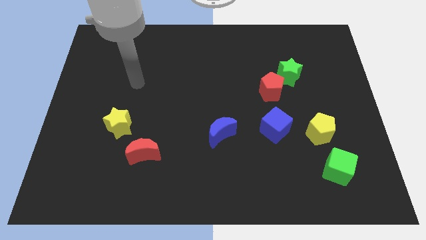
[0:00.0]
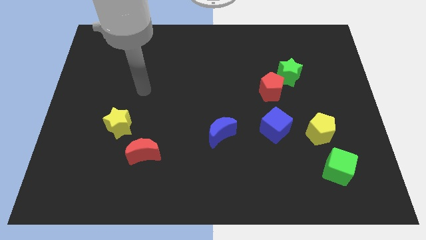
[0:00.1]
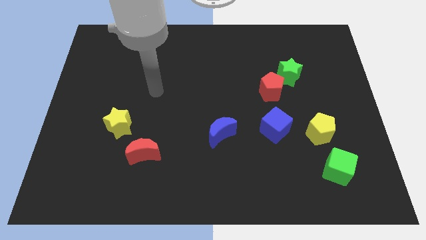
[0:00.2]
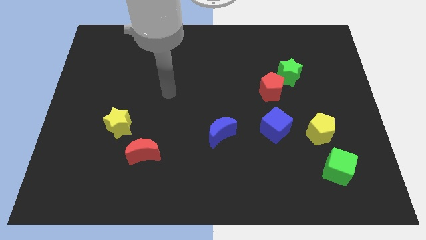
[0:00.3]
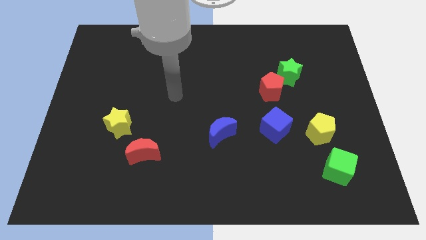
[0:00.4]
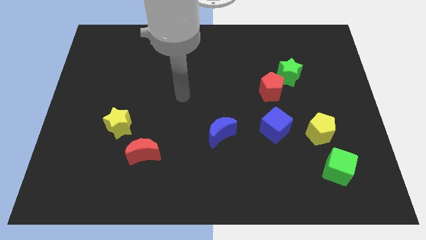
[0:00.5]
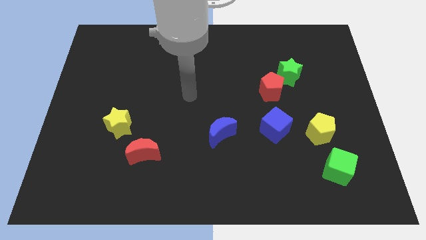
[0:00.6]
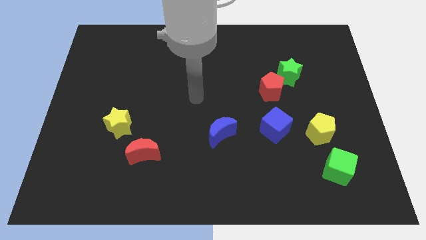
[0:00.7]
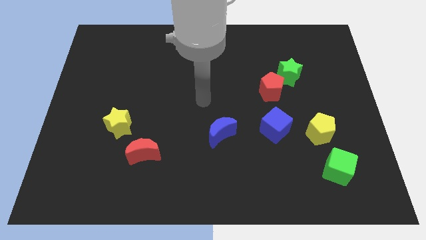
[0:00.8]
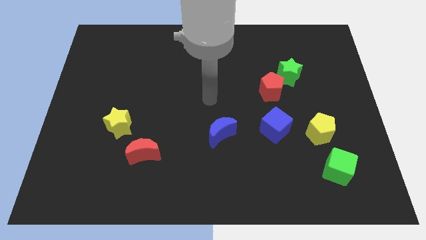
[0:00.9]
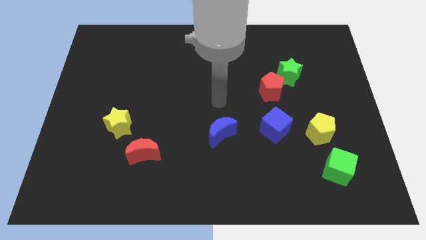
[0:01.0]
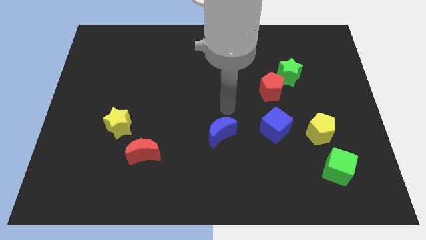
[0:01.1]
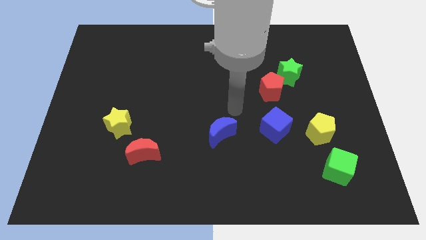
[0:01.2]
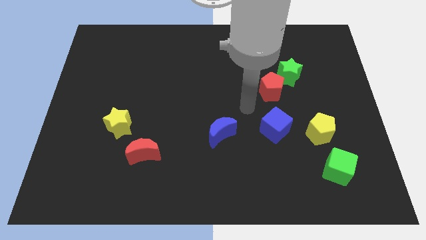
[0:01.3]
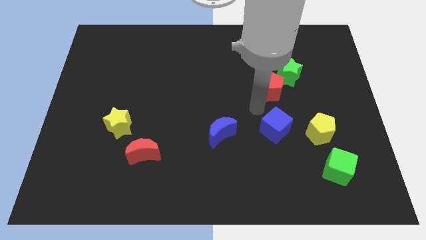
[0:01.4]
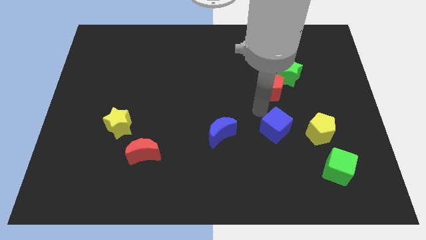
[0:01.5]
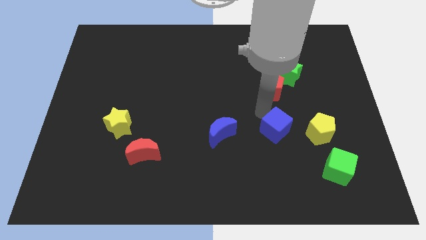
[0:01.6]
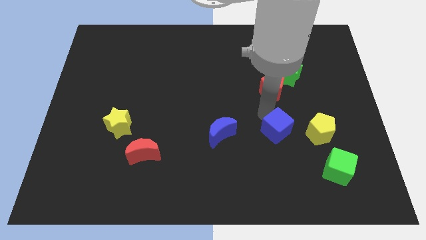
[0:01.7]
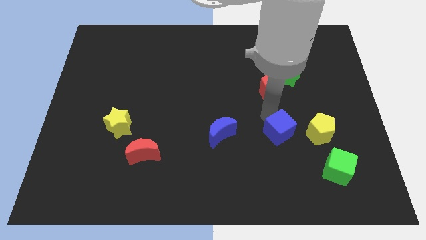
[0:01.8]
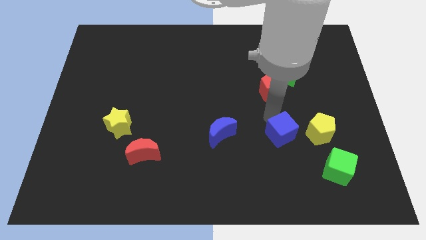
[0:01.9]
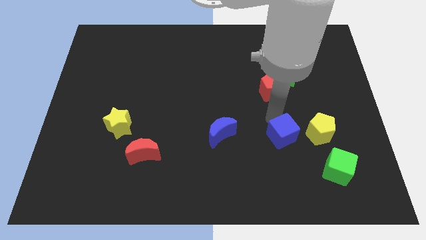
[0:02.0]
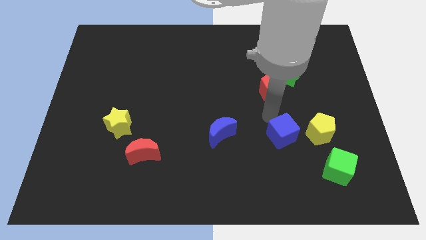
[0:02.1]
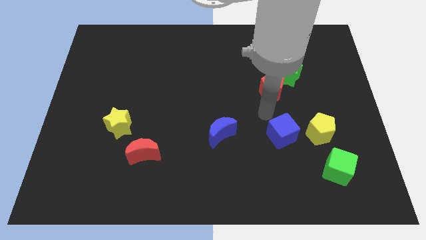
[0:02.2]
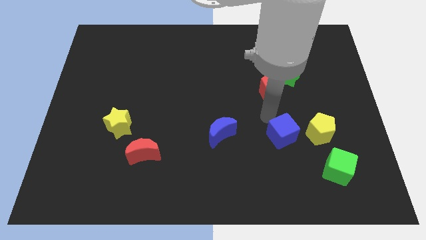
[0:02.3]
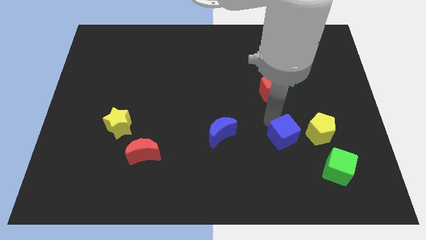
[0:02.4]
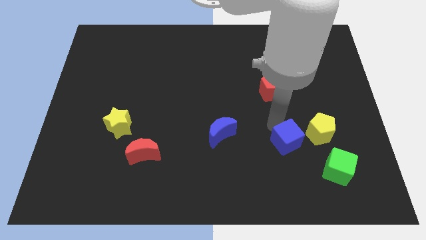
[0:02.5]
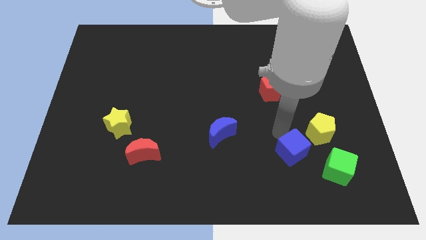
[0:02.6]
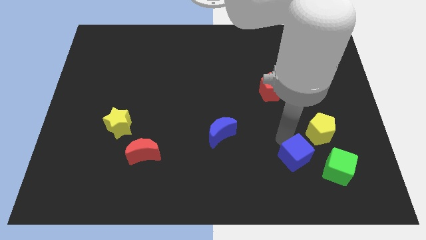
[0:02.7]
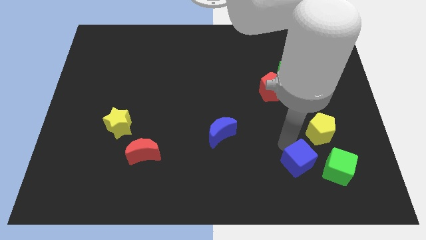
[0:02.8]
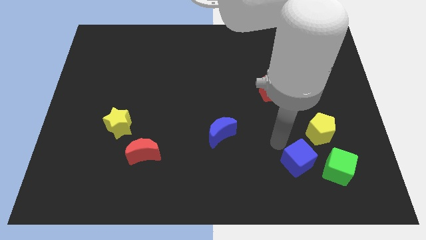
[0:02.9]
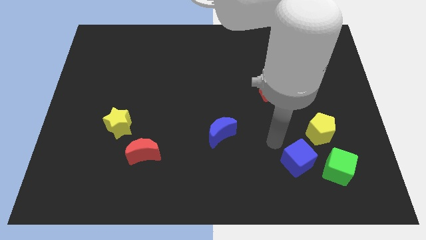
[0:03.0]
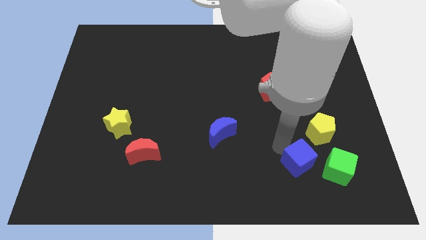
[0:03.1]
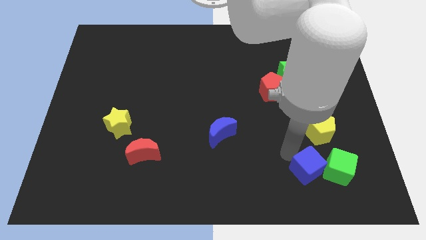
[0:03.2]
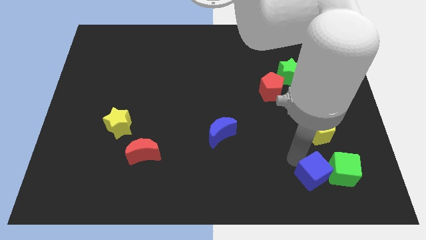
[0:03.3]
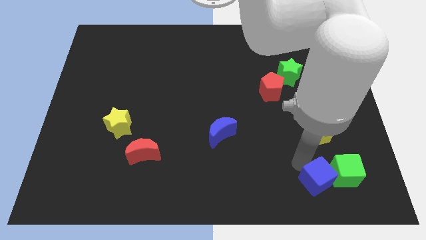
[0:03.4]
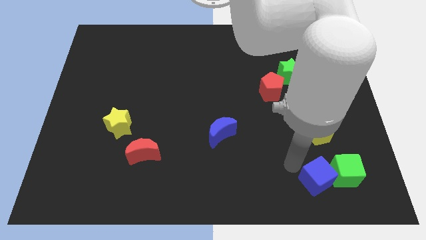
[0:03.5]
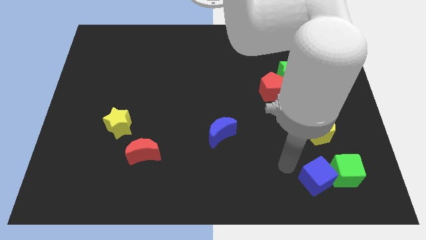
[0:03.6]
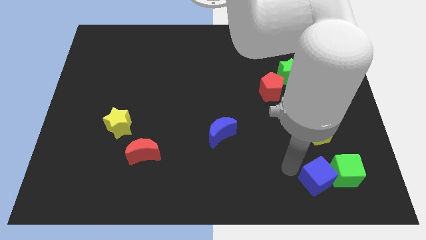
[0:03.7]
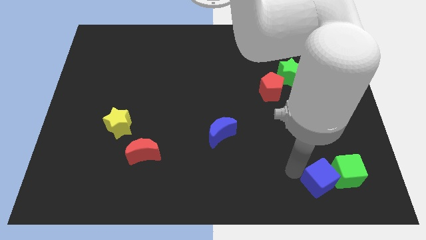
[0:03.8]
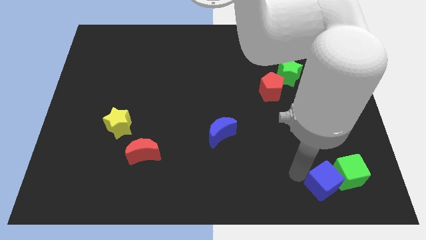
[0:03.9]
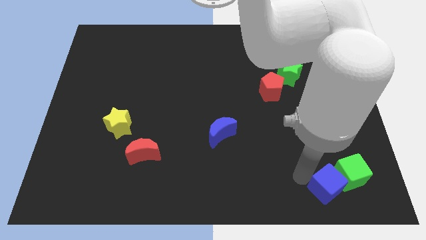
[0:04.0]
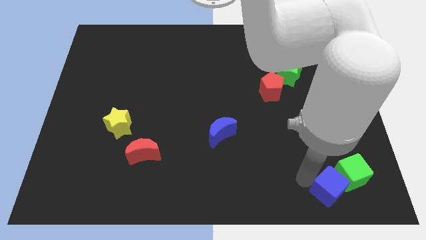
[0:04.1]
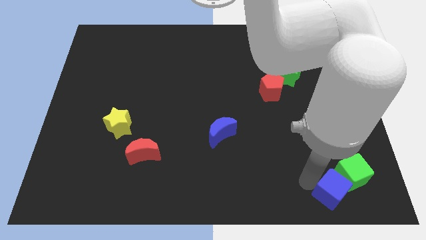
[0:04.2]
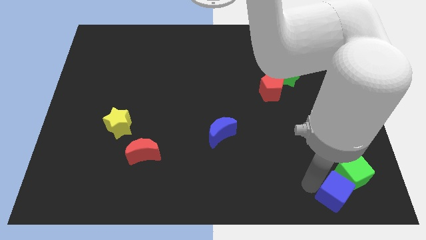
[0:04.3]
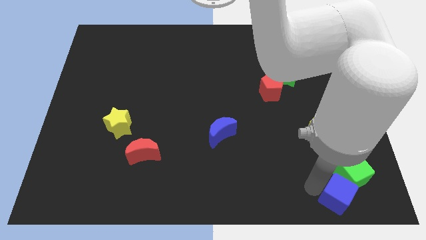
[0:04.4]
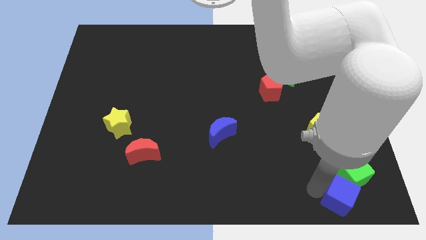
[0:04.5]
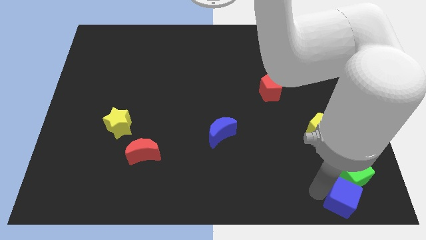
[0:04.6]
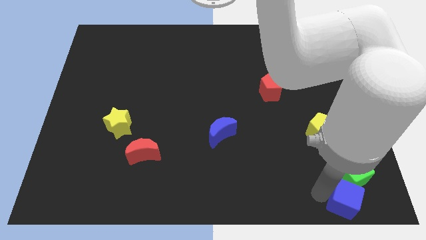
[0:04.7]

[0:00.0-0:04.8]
push the blue cube to the lower right corner

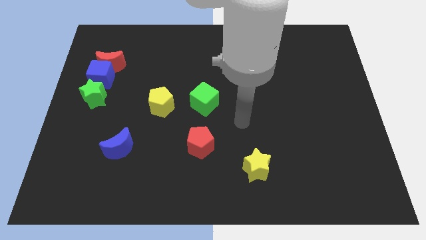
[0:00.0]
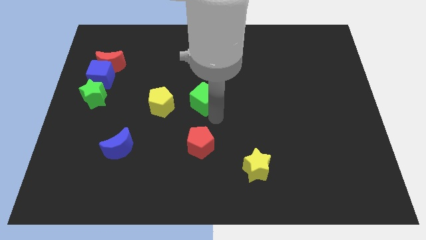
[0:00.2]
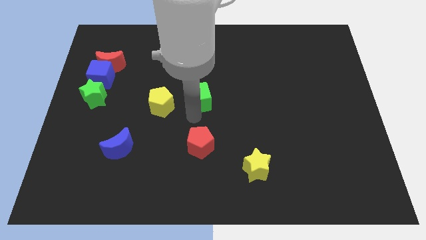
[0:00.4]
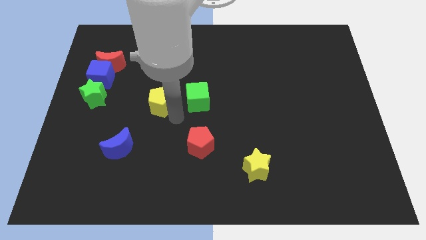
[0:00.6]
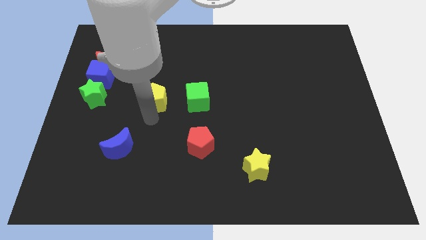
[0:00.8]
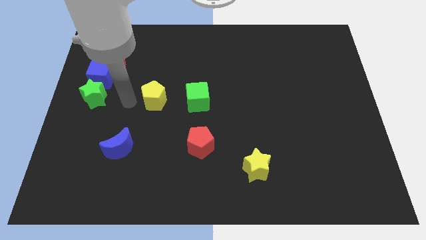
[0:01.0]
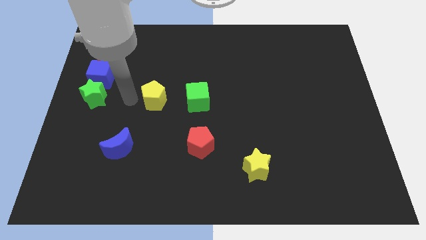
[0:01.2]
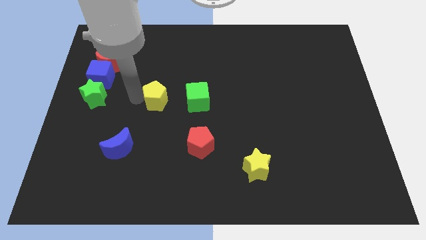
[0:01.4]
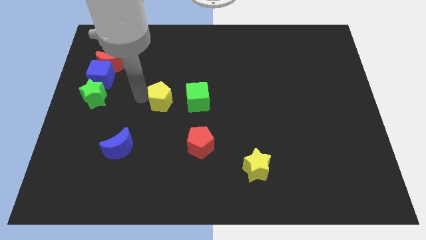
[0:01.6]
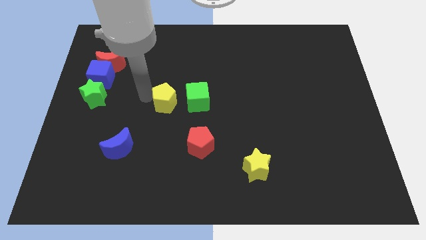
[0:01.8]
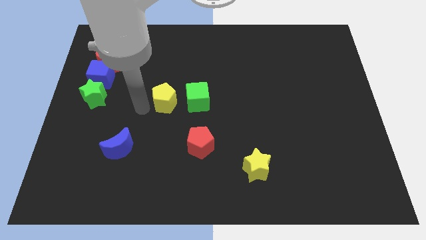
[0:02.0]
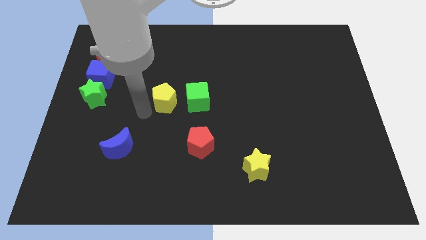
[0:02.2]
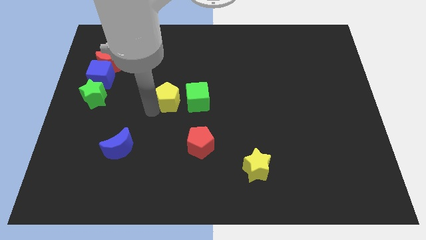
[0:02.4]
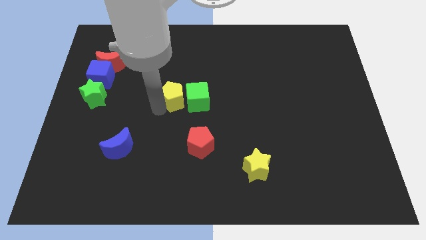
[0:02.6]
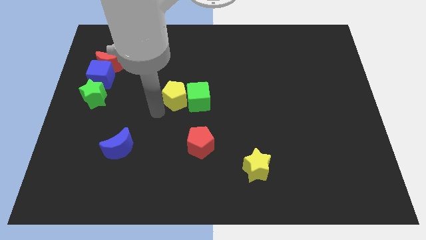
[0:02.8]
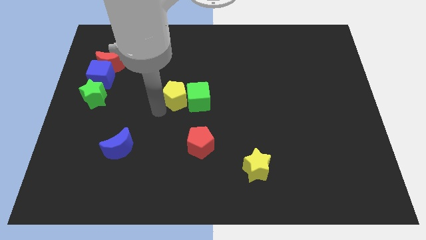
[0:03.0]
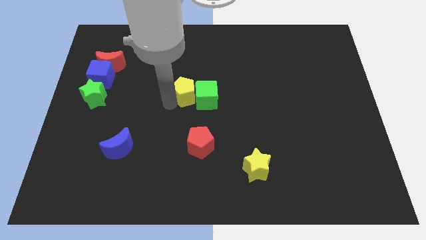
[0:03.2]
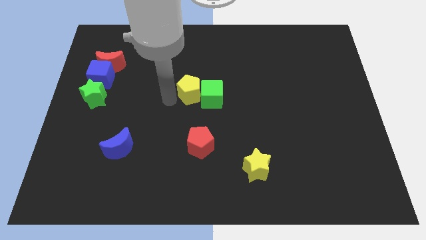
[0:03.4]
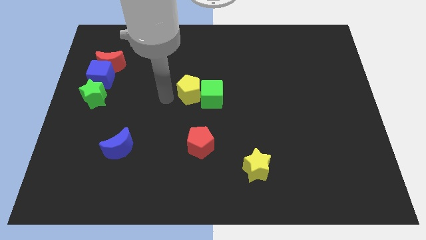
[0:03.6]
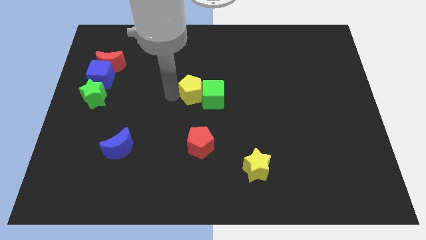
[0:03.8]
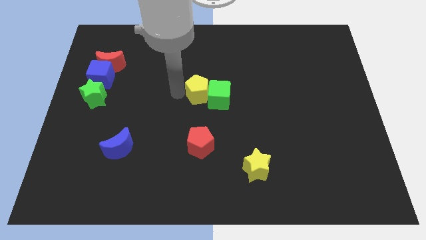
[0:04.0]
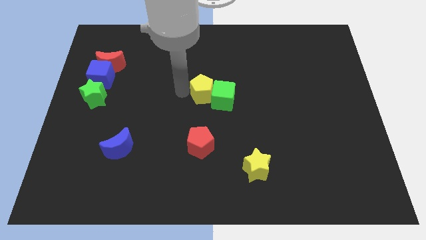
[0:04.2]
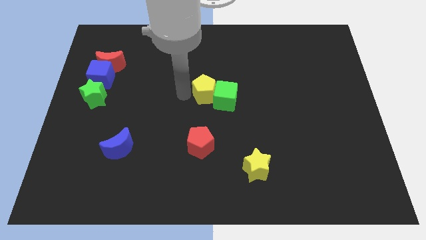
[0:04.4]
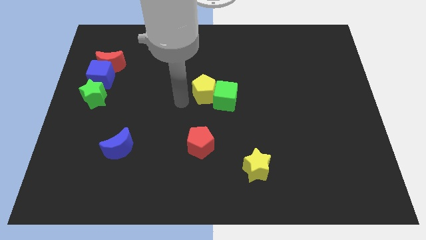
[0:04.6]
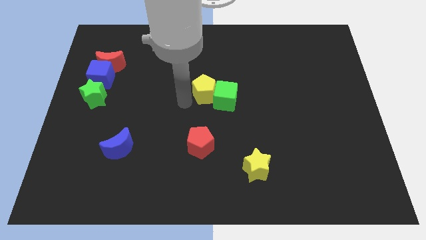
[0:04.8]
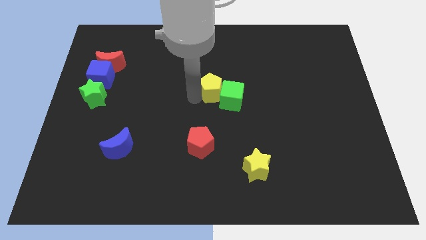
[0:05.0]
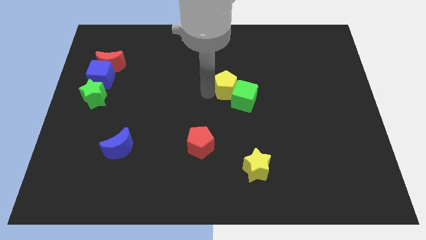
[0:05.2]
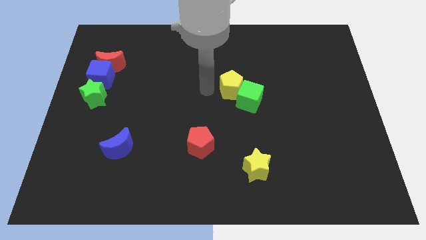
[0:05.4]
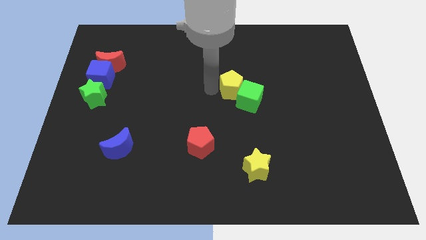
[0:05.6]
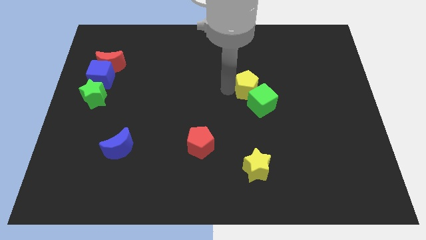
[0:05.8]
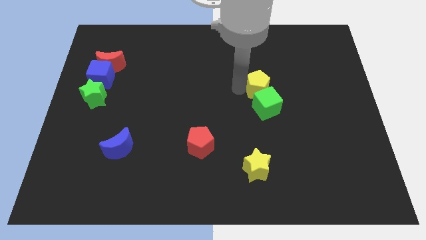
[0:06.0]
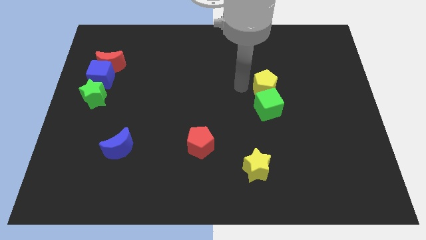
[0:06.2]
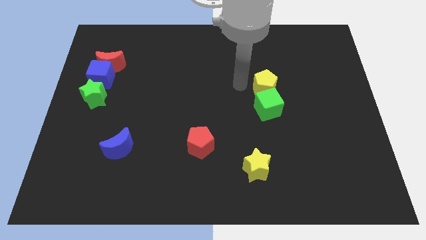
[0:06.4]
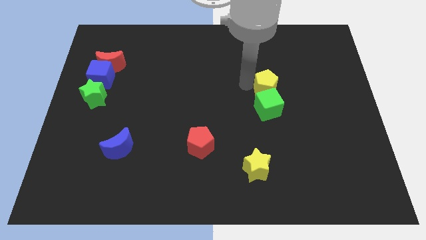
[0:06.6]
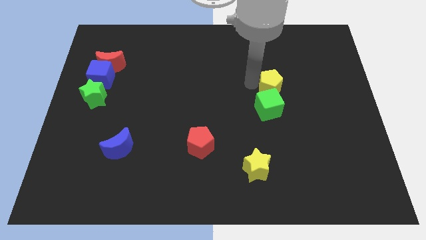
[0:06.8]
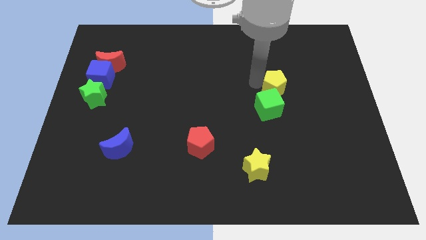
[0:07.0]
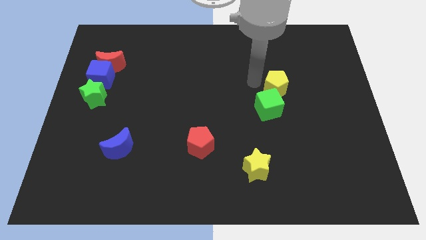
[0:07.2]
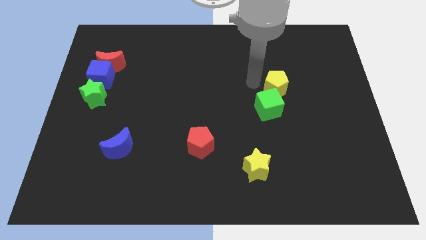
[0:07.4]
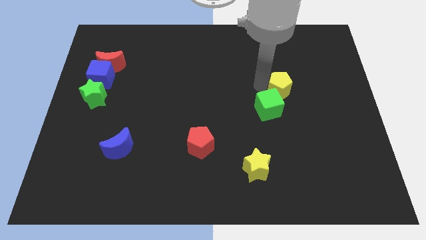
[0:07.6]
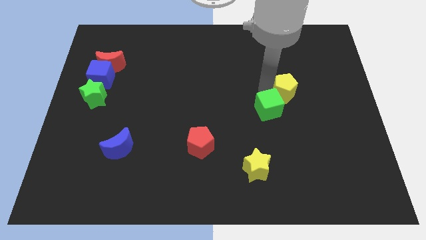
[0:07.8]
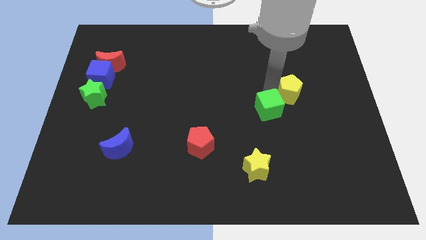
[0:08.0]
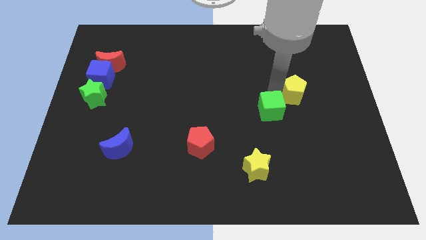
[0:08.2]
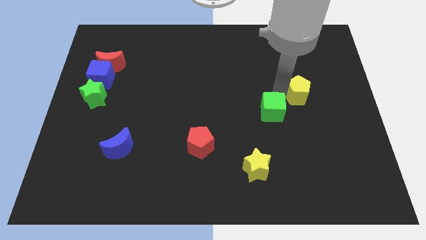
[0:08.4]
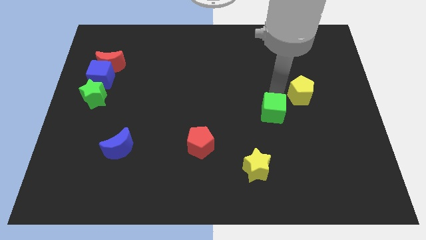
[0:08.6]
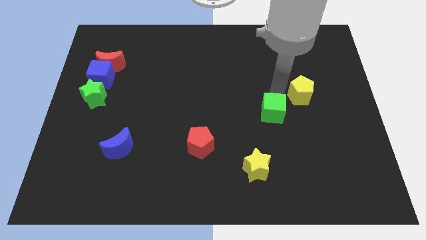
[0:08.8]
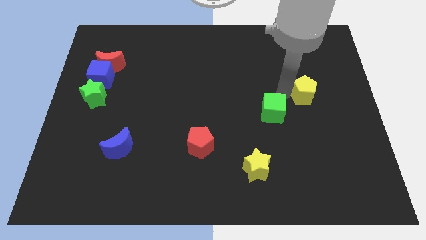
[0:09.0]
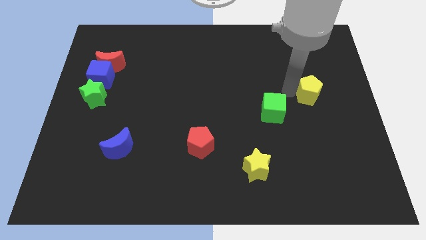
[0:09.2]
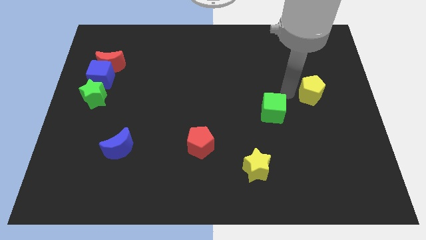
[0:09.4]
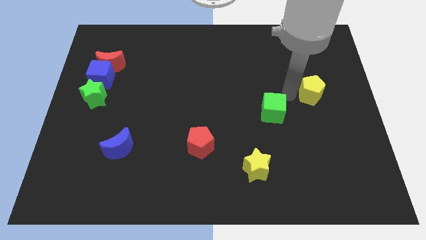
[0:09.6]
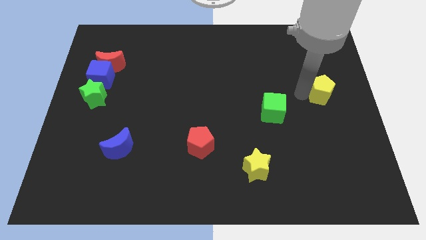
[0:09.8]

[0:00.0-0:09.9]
move the yellow pentagon to the center right
